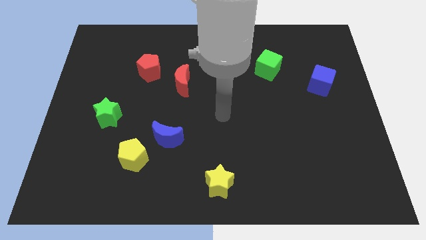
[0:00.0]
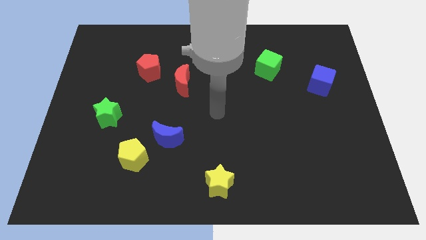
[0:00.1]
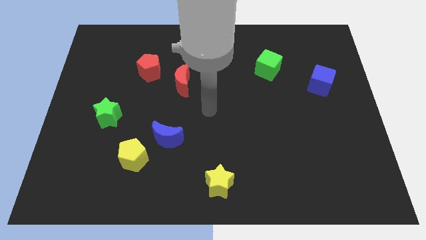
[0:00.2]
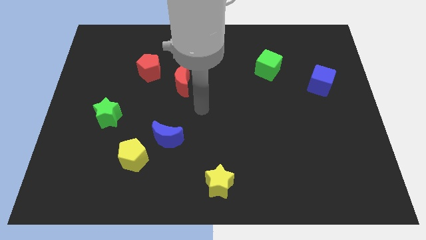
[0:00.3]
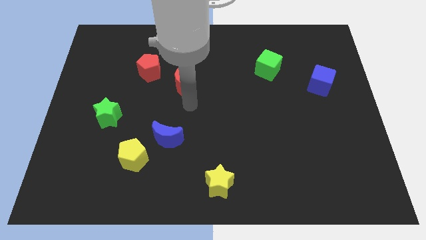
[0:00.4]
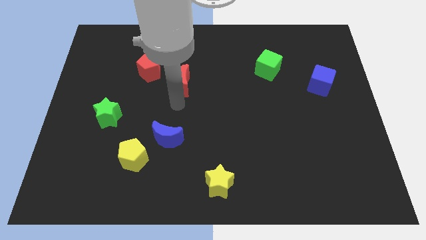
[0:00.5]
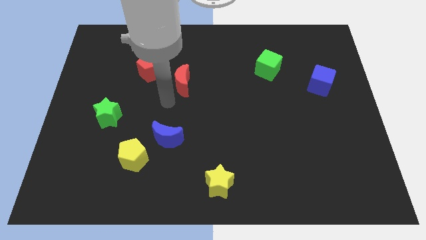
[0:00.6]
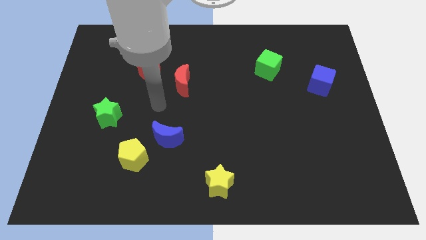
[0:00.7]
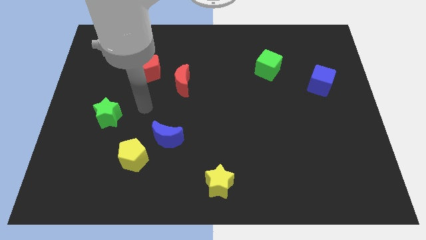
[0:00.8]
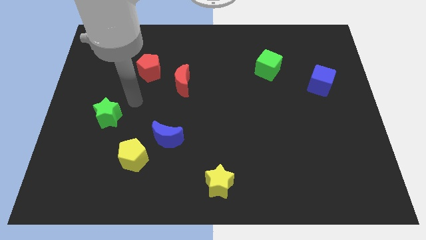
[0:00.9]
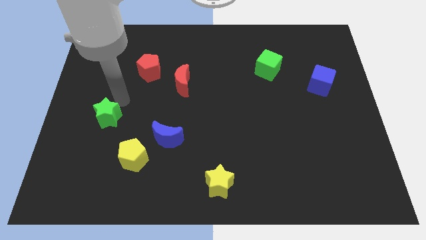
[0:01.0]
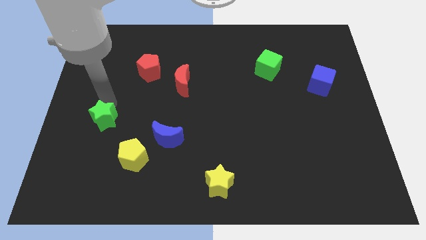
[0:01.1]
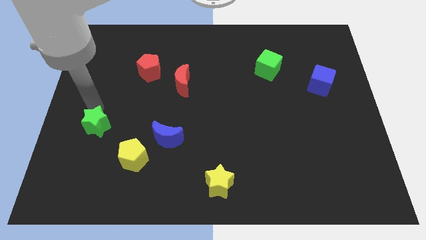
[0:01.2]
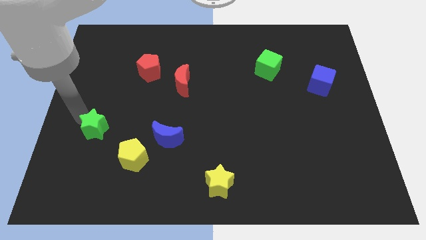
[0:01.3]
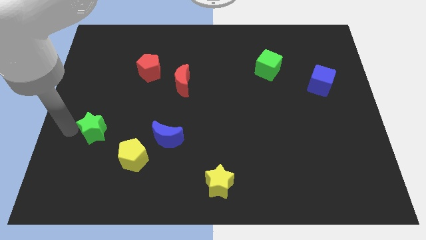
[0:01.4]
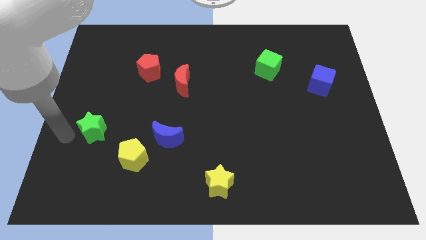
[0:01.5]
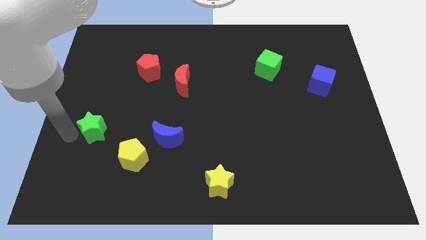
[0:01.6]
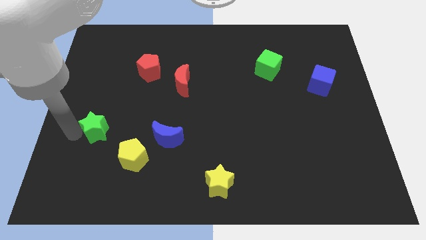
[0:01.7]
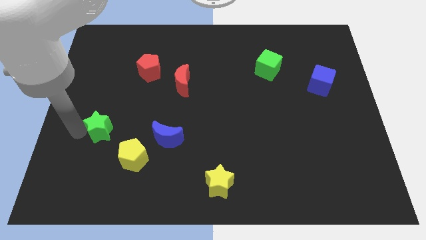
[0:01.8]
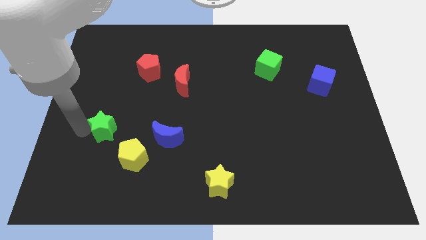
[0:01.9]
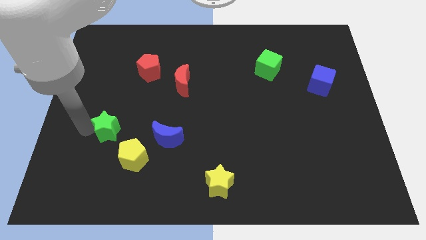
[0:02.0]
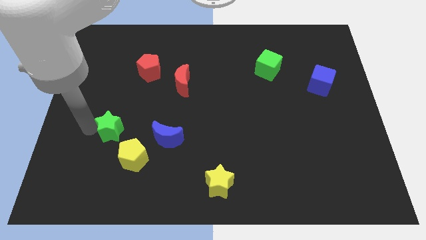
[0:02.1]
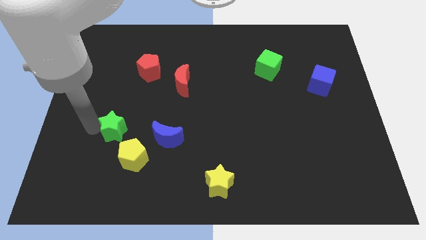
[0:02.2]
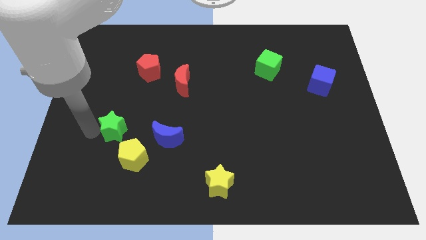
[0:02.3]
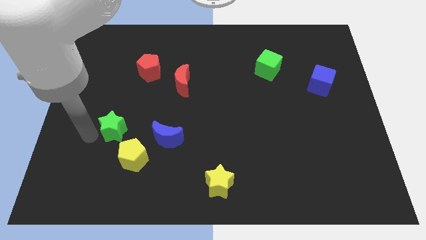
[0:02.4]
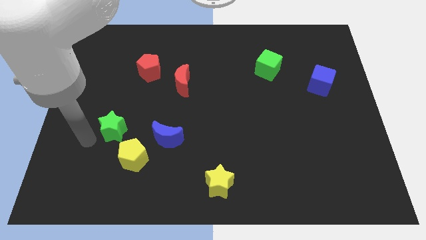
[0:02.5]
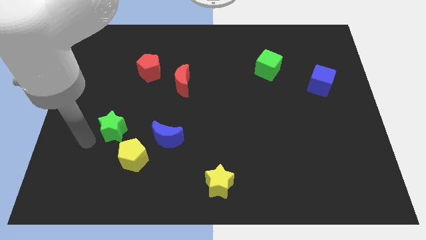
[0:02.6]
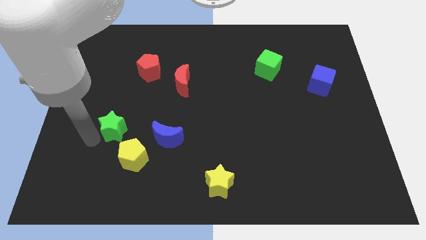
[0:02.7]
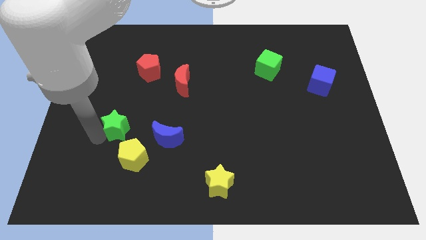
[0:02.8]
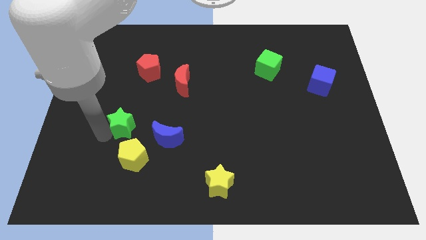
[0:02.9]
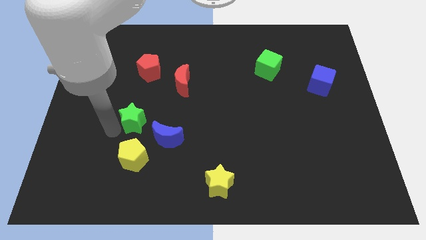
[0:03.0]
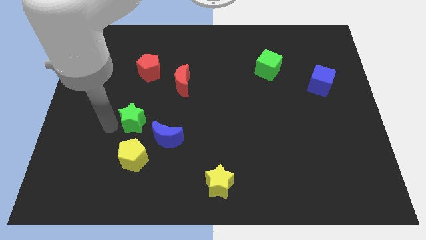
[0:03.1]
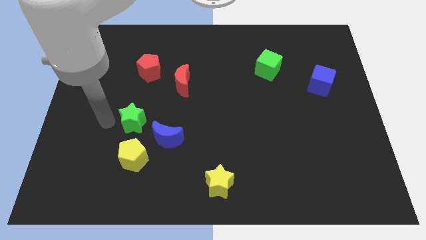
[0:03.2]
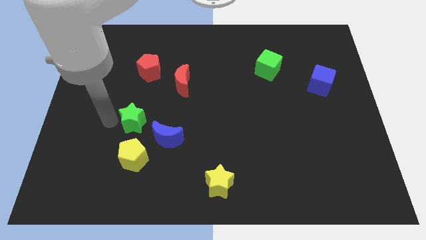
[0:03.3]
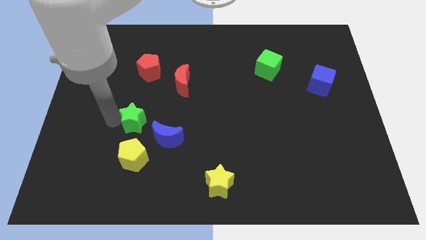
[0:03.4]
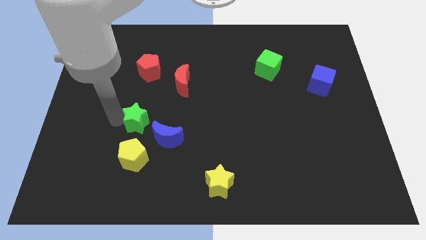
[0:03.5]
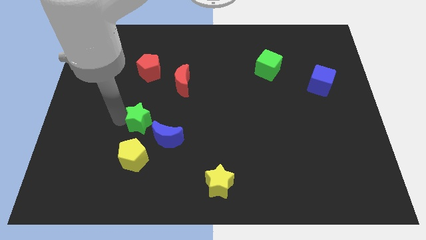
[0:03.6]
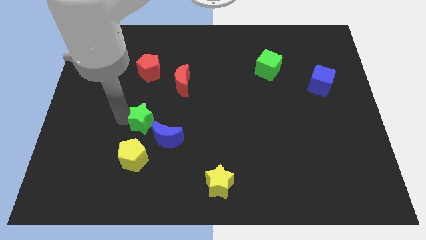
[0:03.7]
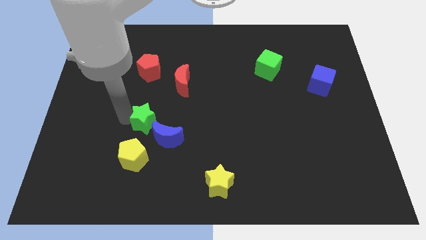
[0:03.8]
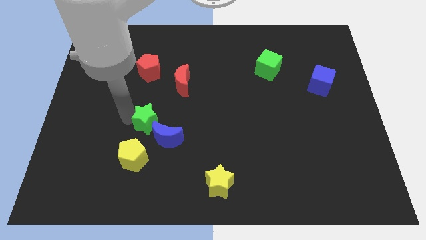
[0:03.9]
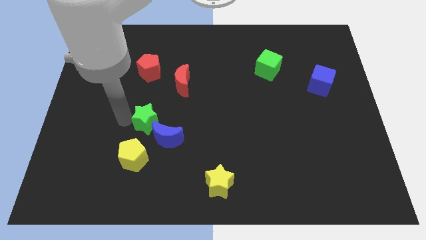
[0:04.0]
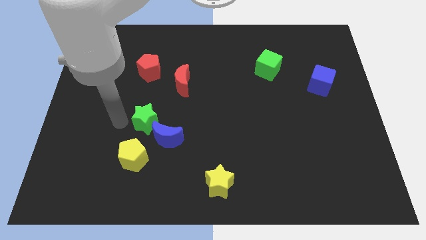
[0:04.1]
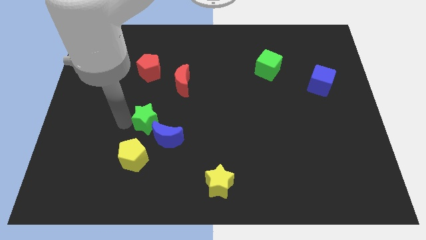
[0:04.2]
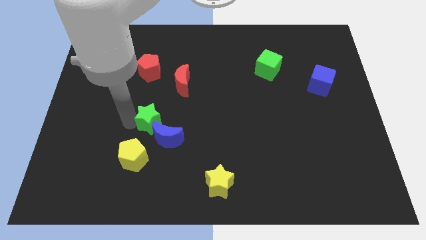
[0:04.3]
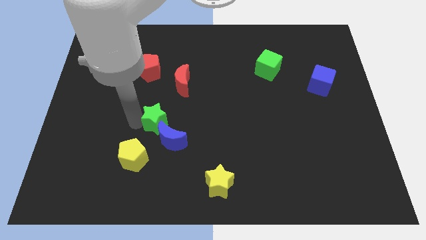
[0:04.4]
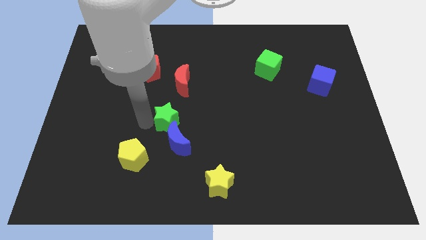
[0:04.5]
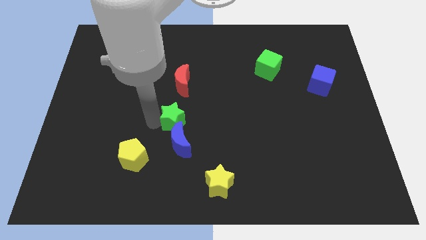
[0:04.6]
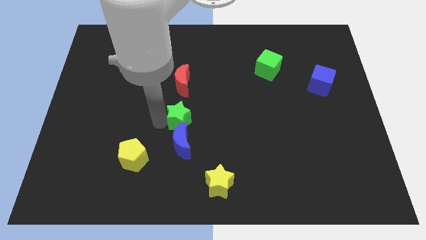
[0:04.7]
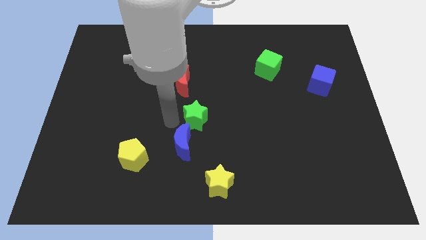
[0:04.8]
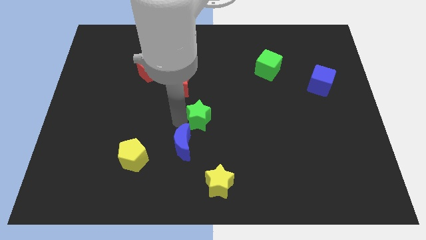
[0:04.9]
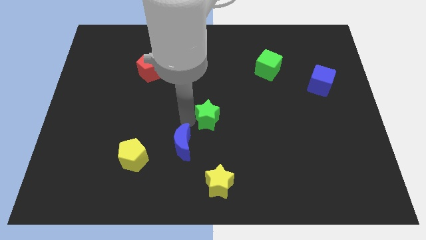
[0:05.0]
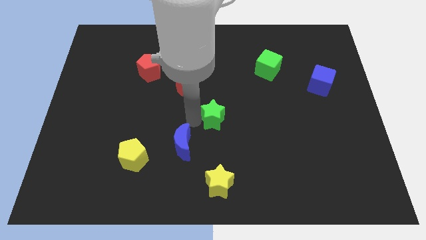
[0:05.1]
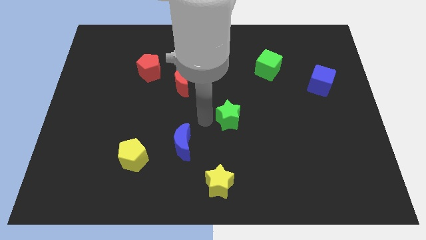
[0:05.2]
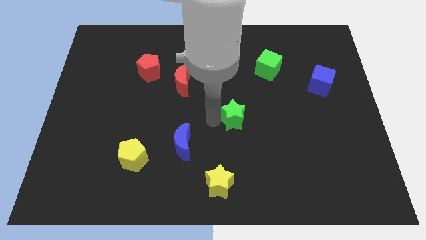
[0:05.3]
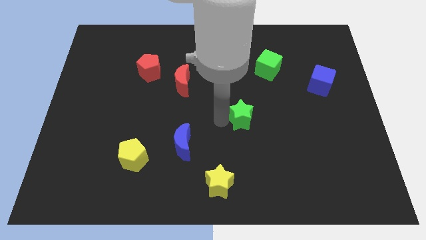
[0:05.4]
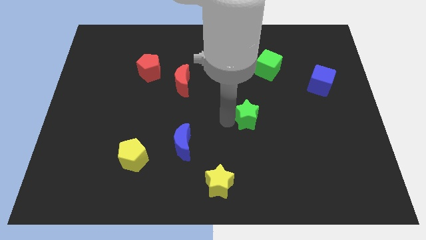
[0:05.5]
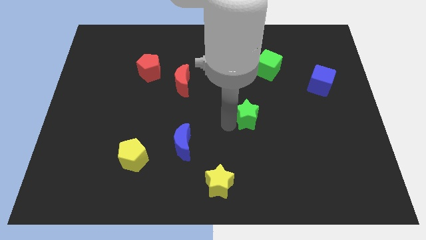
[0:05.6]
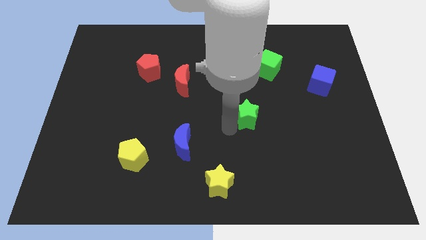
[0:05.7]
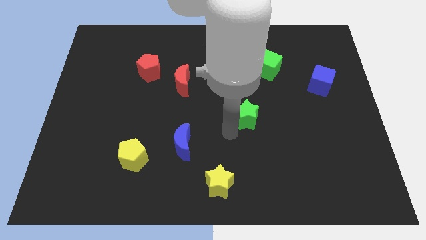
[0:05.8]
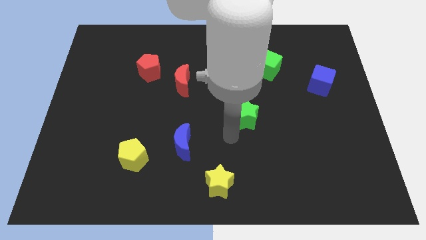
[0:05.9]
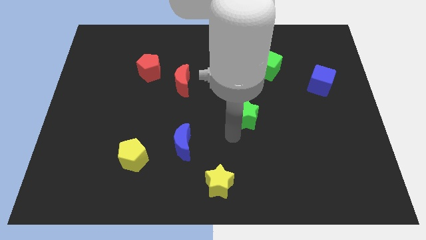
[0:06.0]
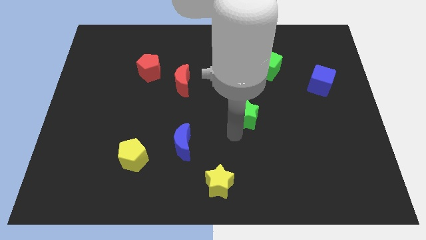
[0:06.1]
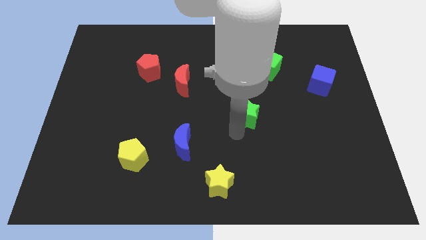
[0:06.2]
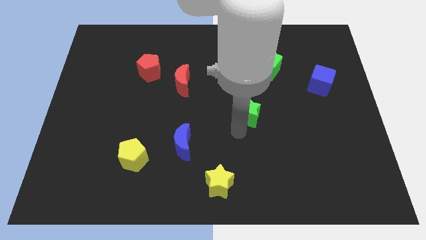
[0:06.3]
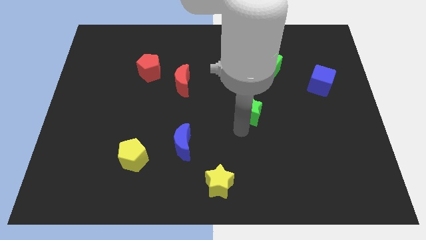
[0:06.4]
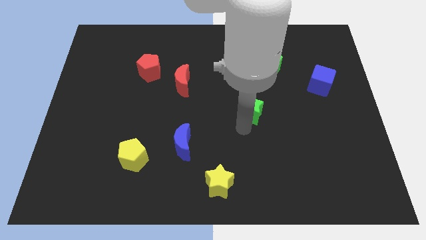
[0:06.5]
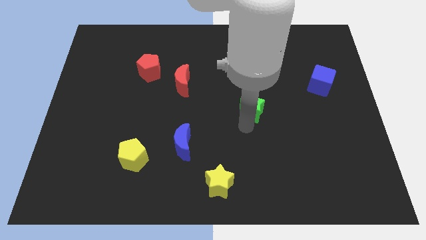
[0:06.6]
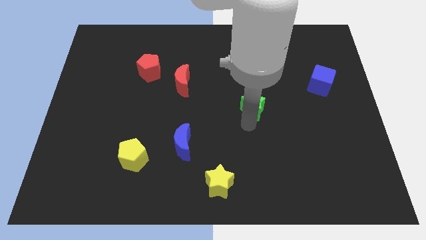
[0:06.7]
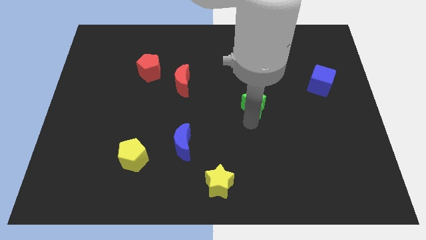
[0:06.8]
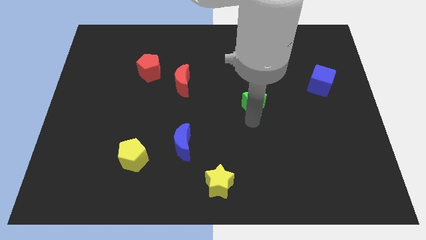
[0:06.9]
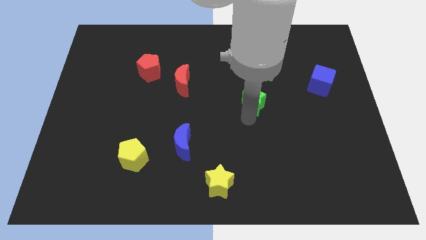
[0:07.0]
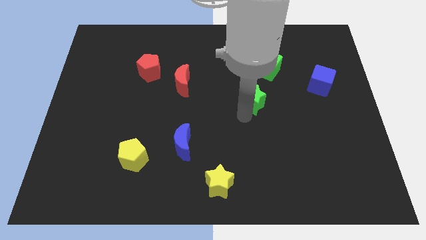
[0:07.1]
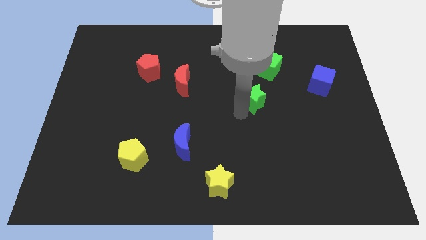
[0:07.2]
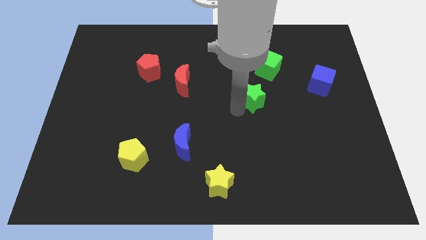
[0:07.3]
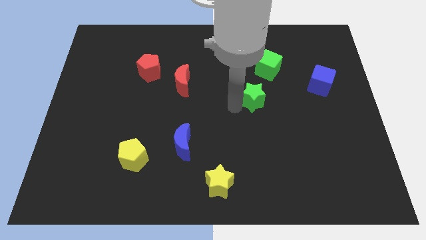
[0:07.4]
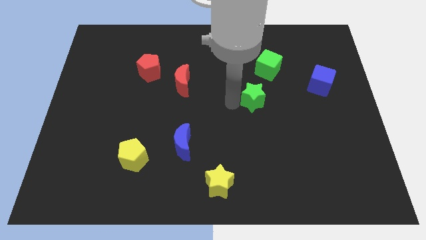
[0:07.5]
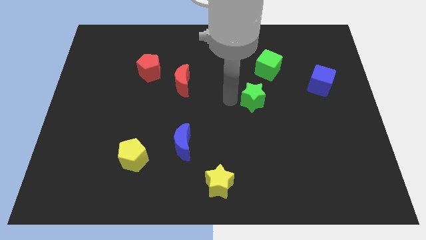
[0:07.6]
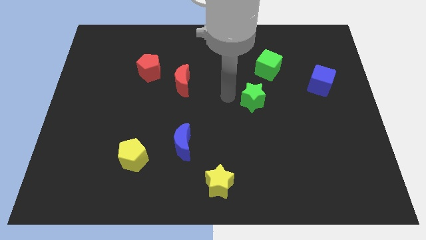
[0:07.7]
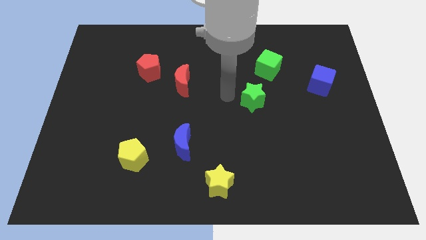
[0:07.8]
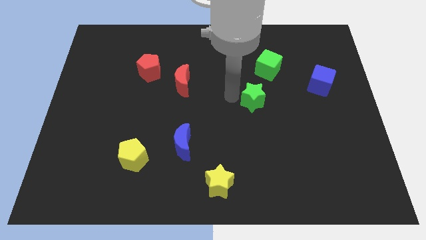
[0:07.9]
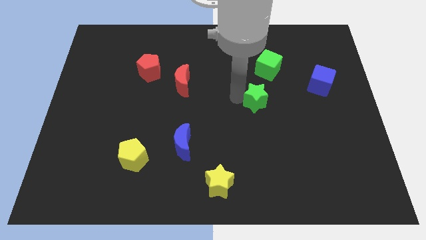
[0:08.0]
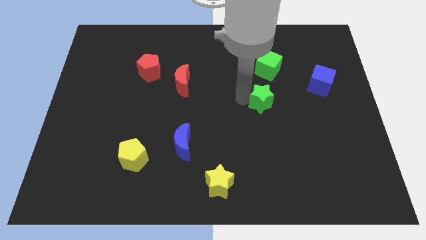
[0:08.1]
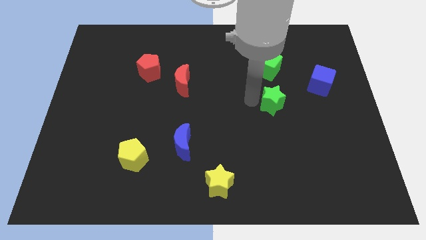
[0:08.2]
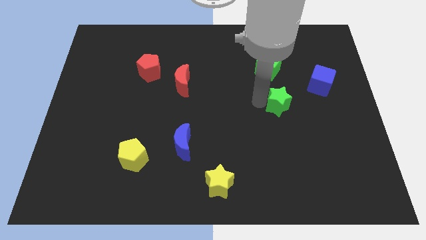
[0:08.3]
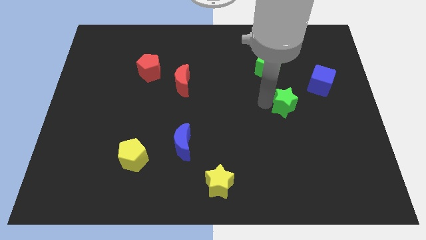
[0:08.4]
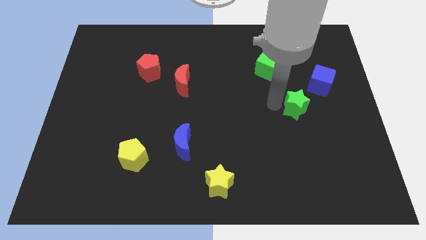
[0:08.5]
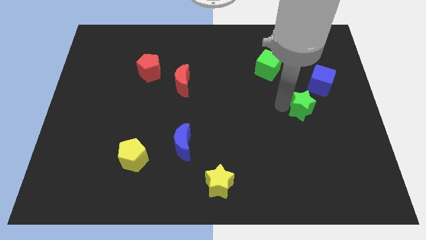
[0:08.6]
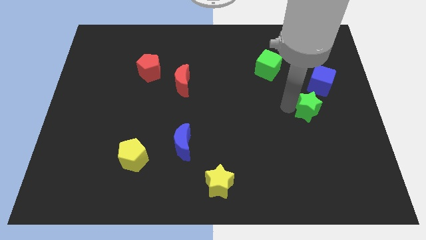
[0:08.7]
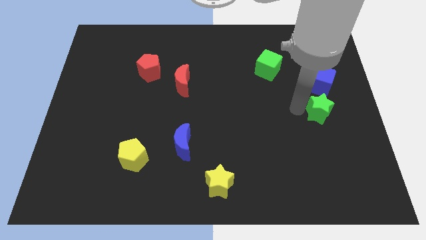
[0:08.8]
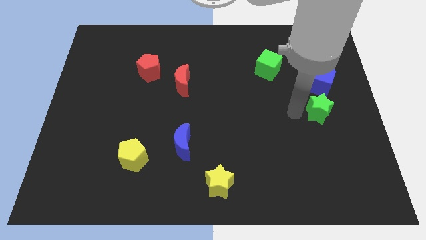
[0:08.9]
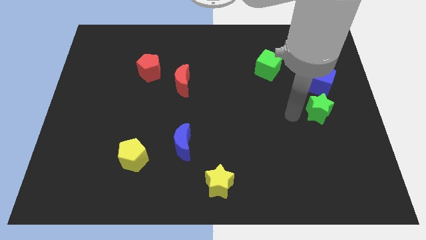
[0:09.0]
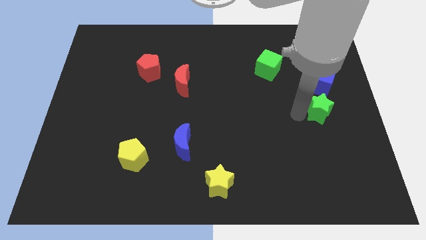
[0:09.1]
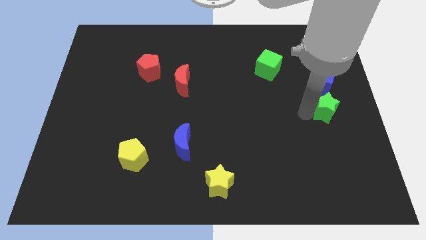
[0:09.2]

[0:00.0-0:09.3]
put the green star to the right side
